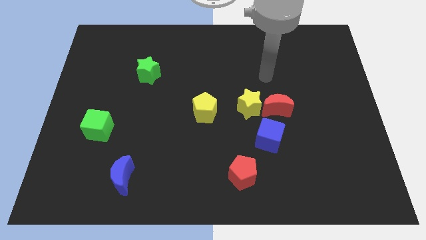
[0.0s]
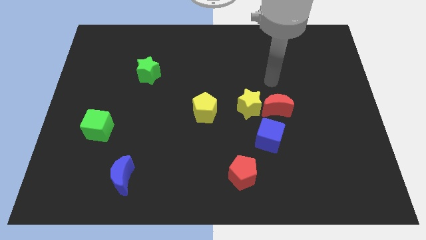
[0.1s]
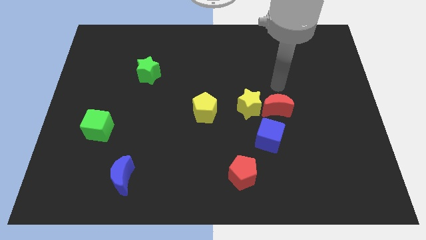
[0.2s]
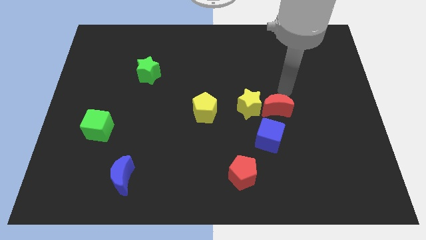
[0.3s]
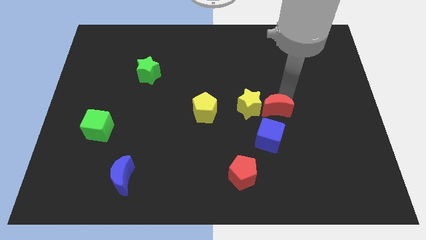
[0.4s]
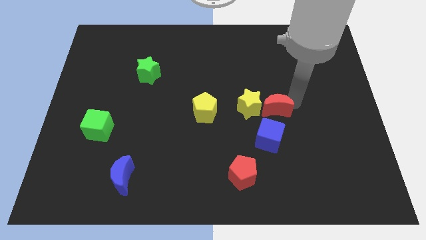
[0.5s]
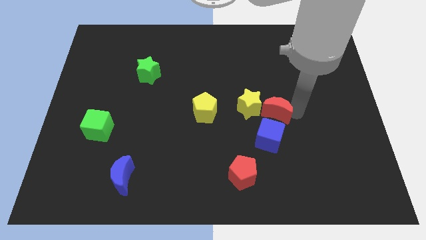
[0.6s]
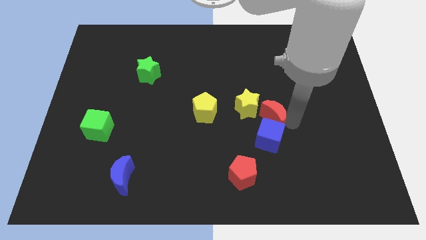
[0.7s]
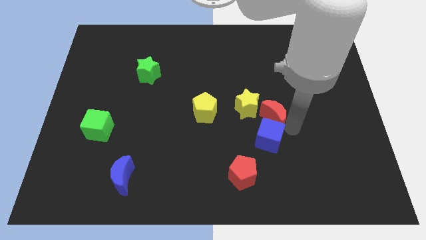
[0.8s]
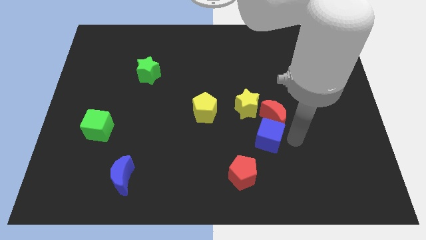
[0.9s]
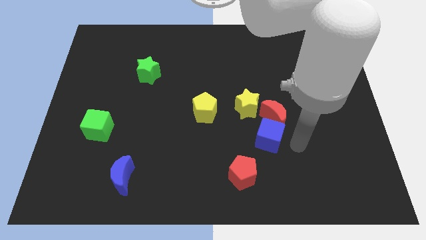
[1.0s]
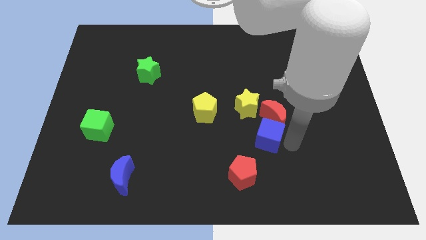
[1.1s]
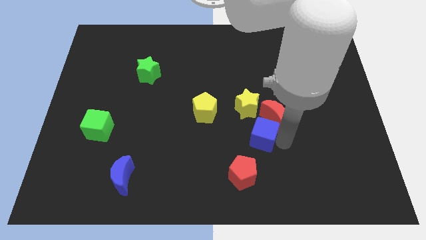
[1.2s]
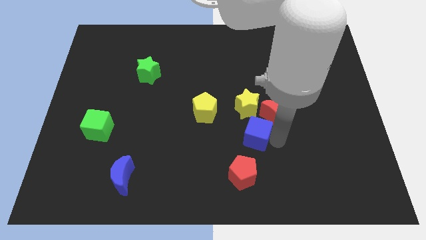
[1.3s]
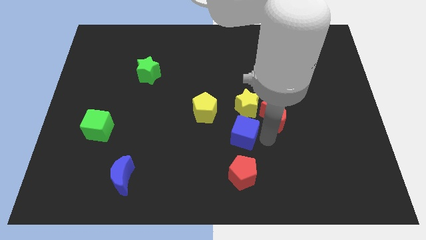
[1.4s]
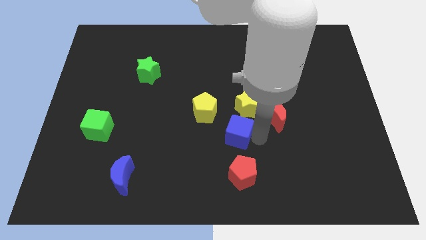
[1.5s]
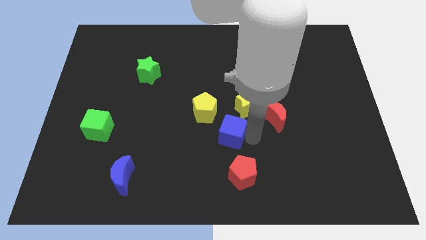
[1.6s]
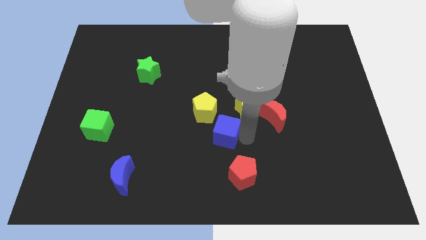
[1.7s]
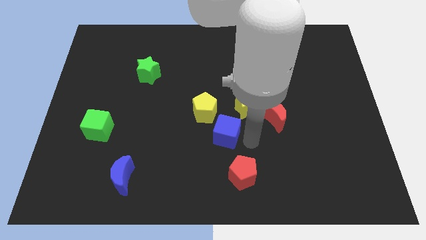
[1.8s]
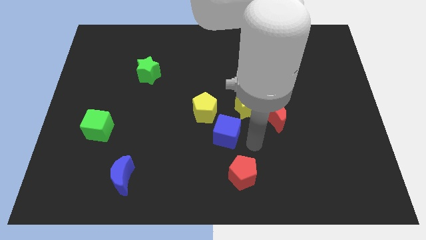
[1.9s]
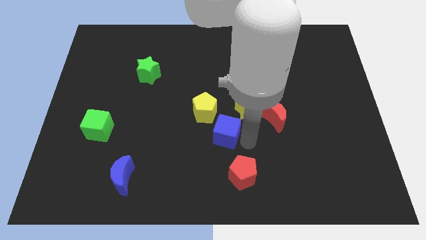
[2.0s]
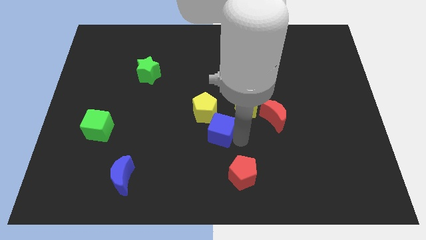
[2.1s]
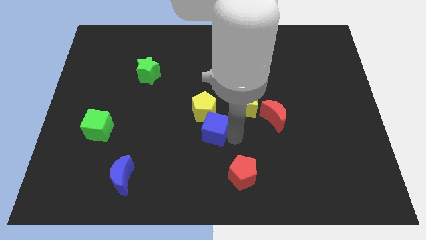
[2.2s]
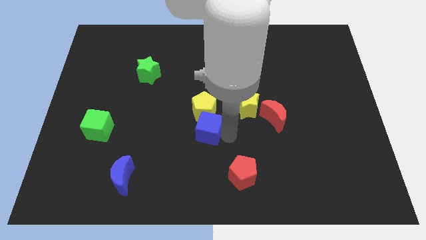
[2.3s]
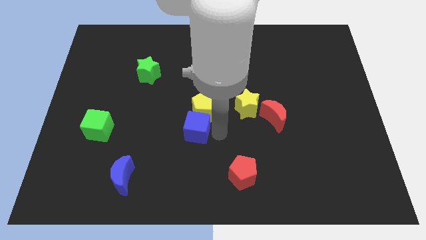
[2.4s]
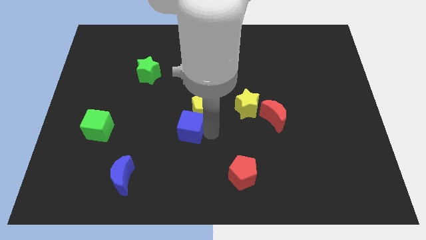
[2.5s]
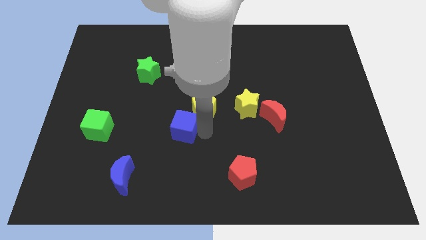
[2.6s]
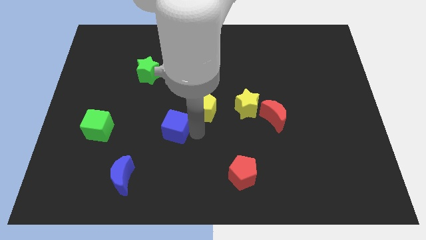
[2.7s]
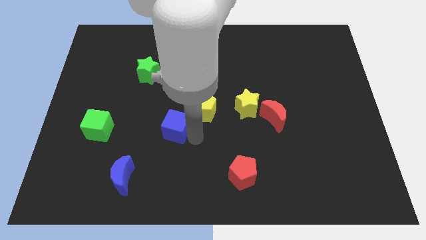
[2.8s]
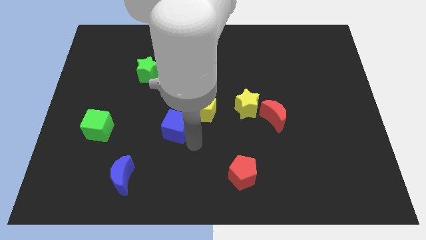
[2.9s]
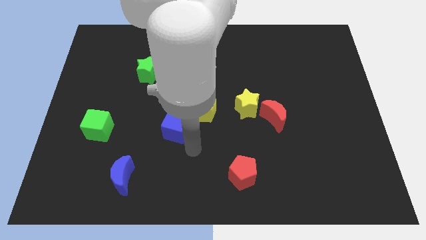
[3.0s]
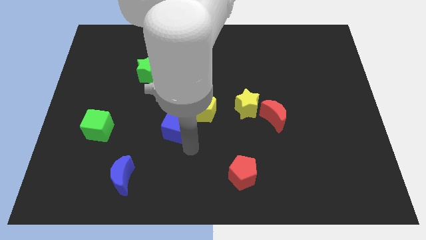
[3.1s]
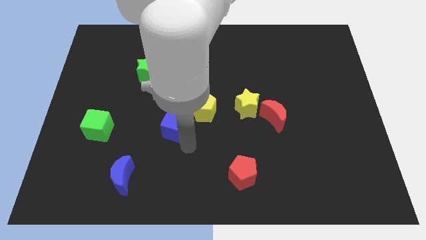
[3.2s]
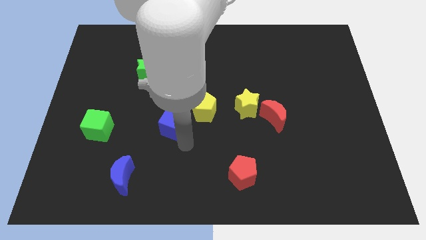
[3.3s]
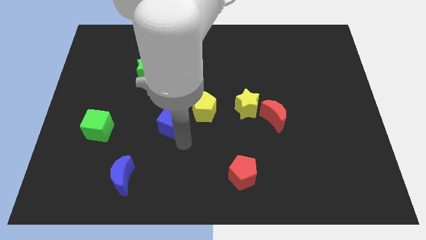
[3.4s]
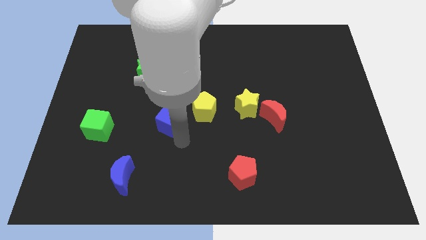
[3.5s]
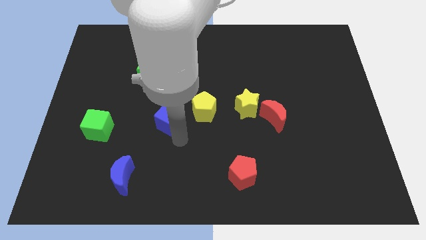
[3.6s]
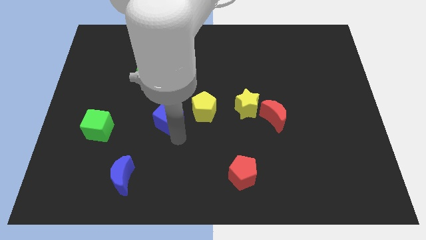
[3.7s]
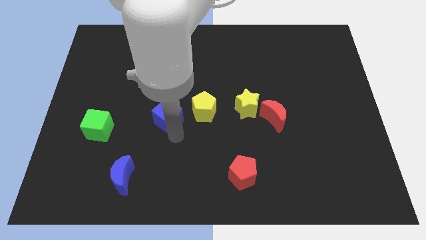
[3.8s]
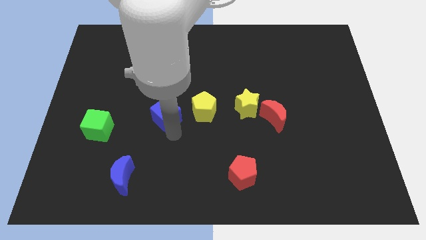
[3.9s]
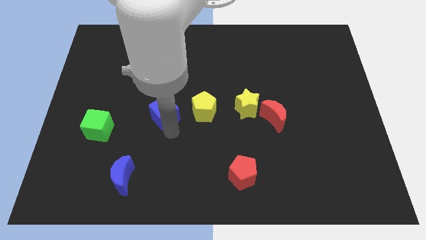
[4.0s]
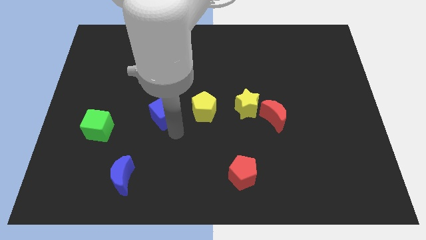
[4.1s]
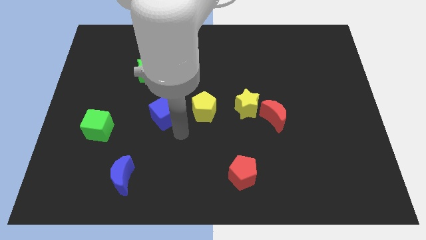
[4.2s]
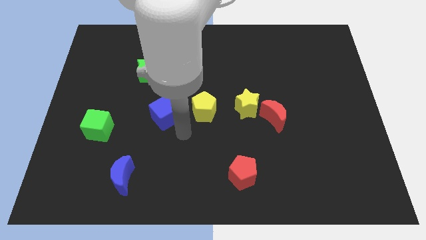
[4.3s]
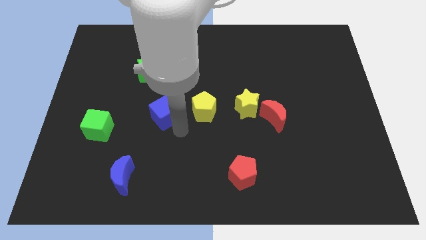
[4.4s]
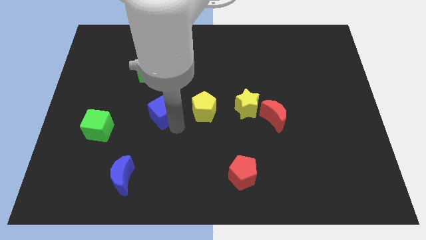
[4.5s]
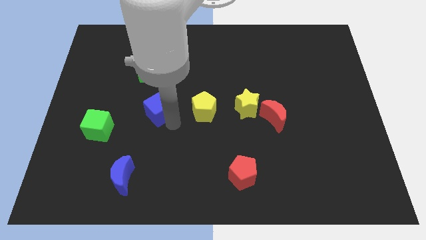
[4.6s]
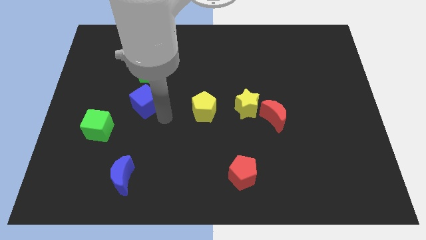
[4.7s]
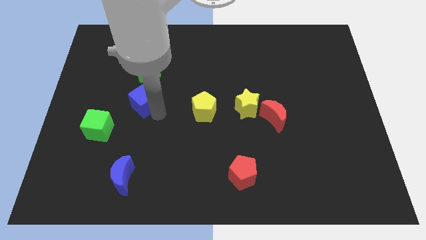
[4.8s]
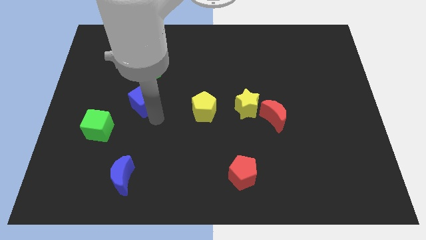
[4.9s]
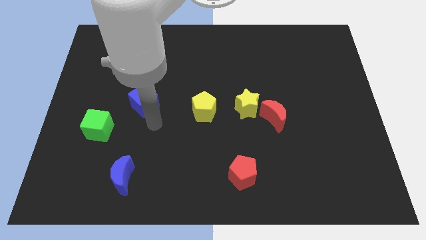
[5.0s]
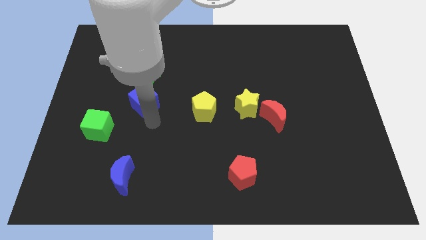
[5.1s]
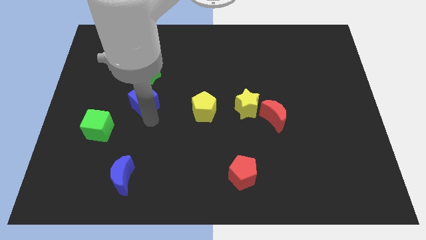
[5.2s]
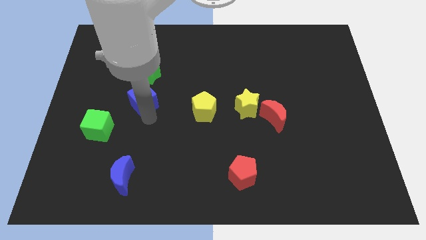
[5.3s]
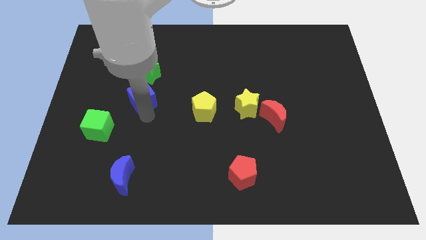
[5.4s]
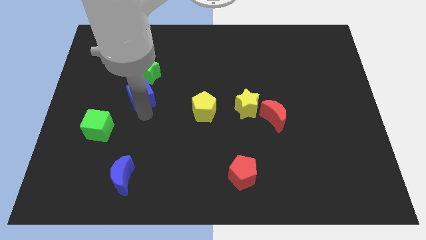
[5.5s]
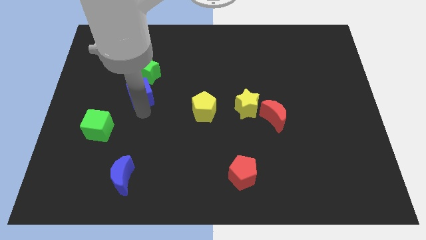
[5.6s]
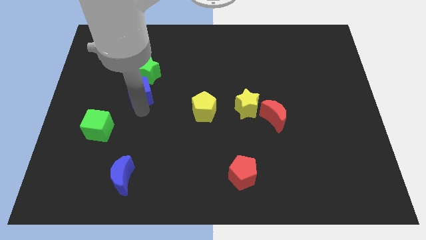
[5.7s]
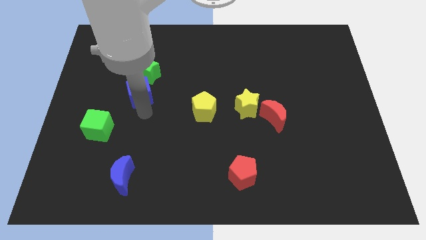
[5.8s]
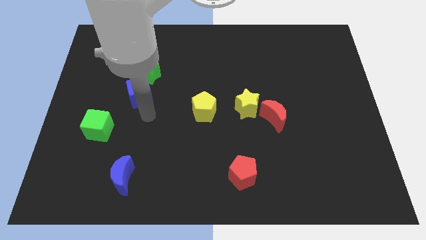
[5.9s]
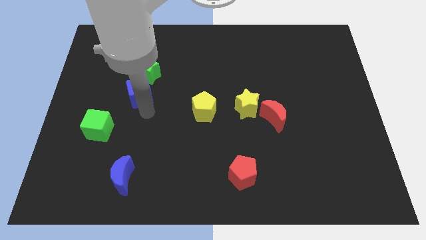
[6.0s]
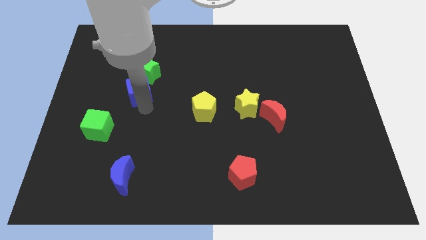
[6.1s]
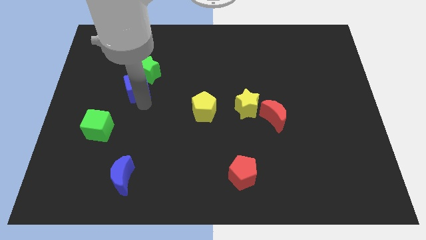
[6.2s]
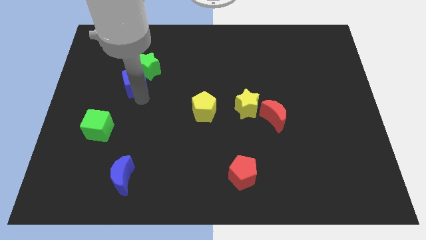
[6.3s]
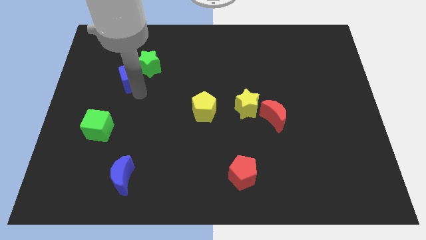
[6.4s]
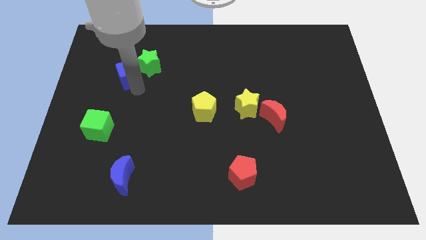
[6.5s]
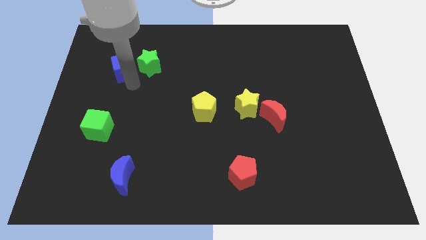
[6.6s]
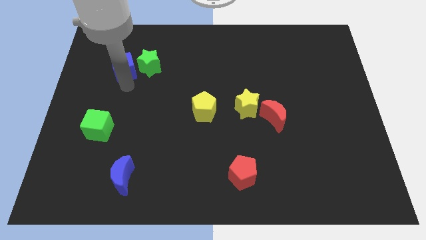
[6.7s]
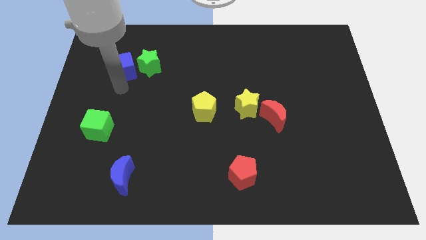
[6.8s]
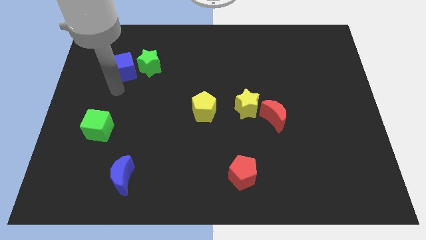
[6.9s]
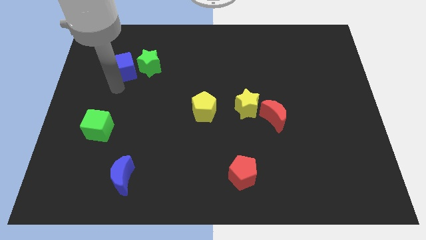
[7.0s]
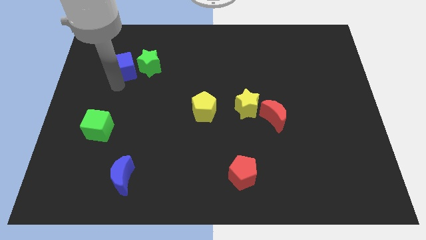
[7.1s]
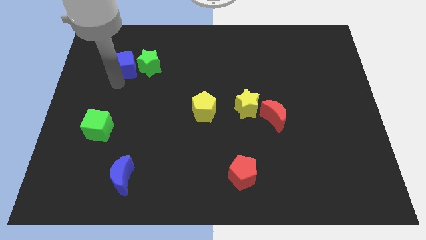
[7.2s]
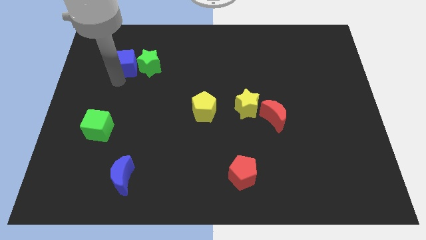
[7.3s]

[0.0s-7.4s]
push the blue cube diagonally up and to the left of the green star
